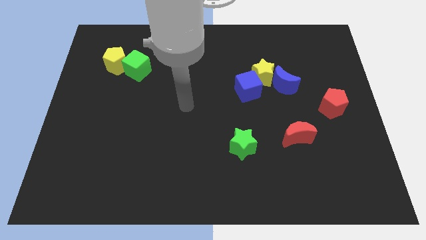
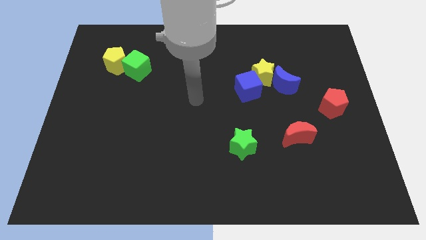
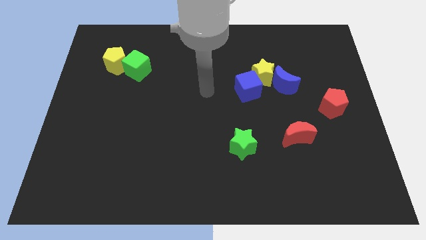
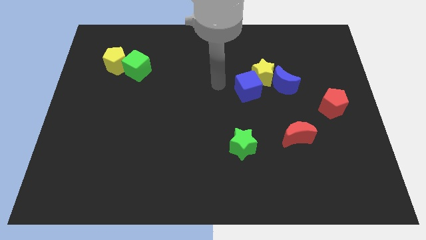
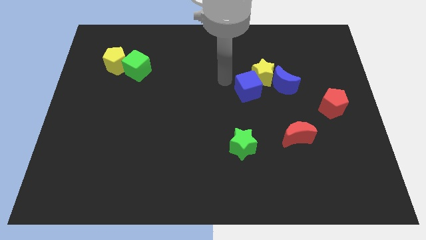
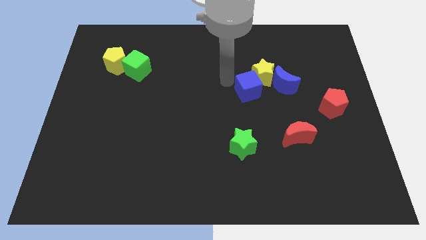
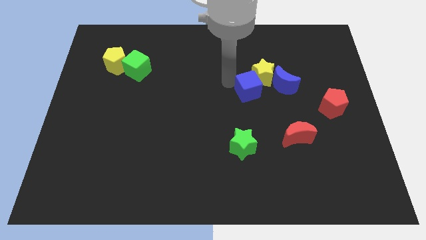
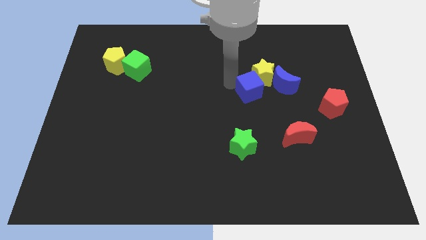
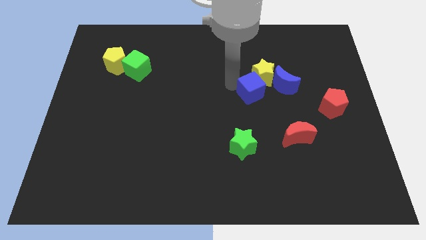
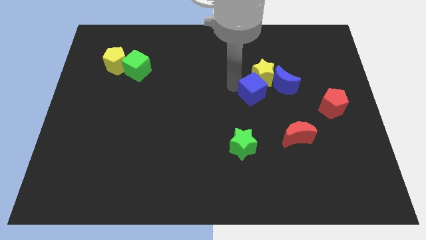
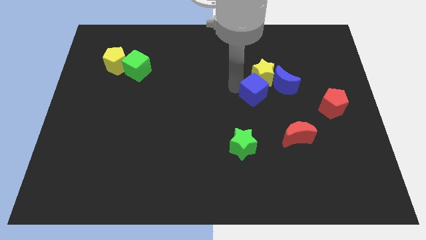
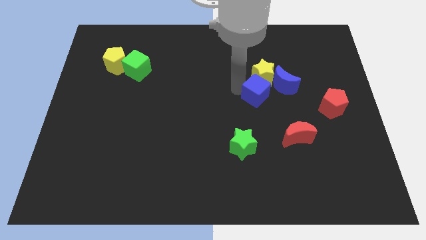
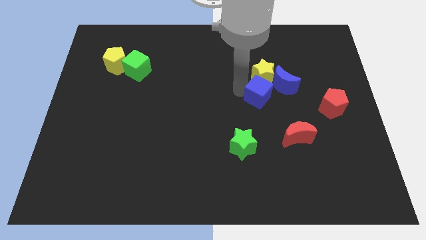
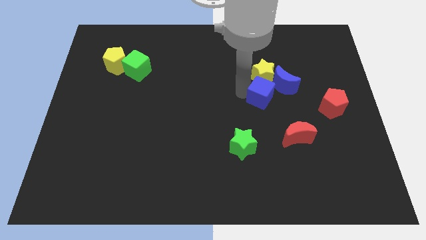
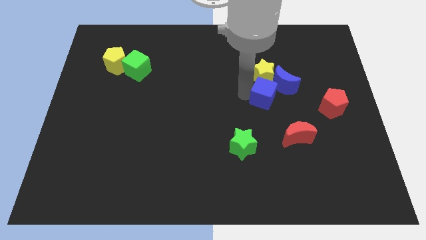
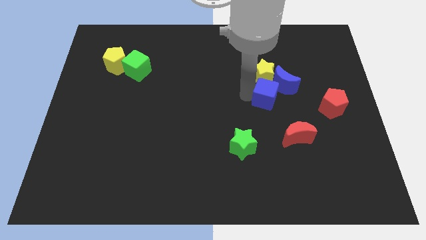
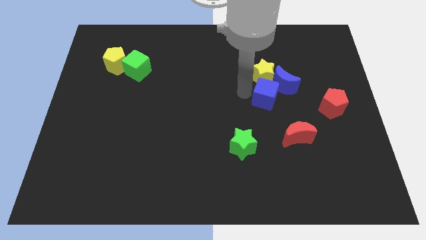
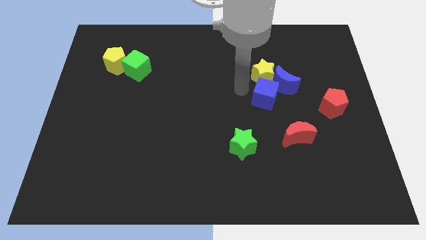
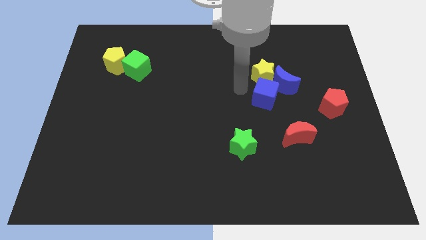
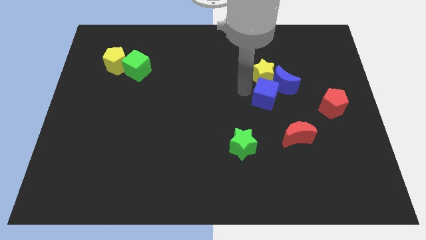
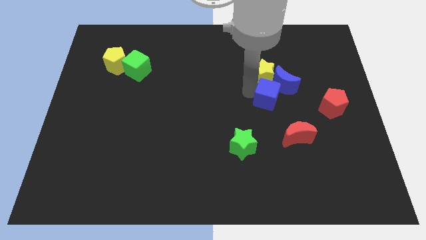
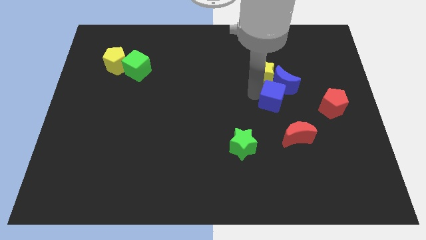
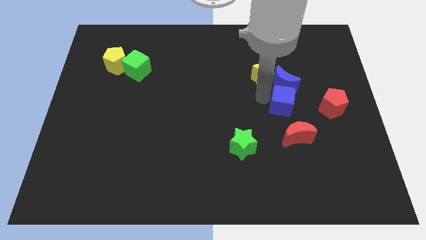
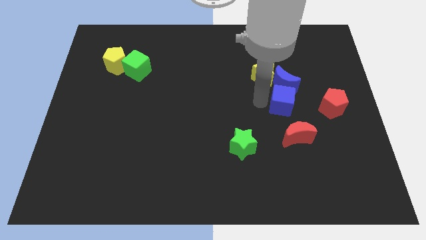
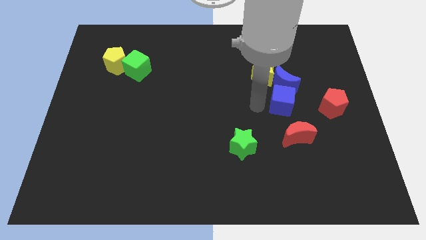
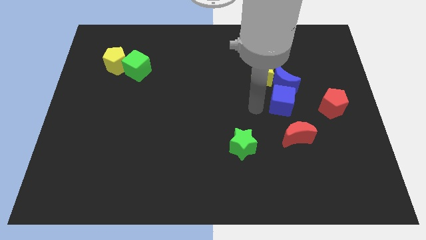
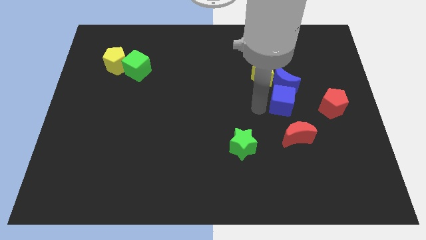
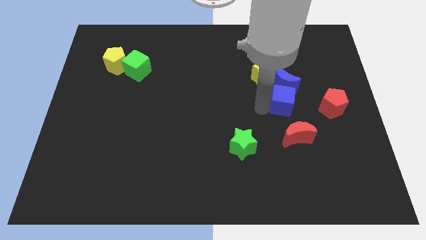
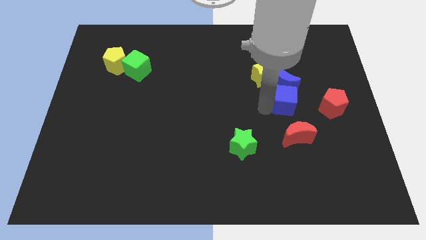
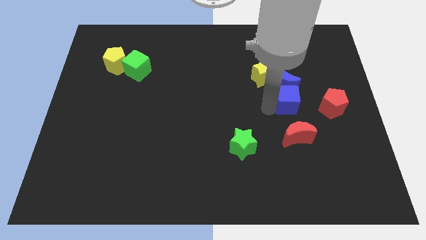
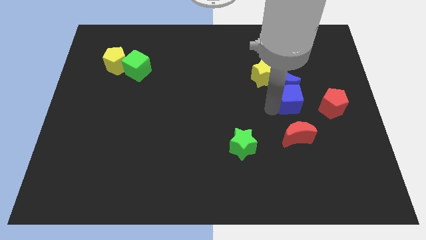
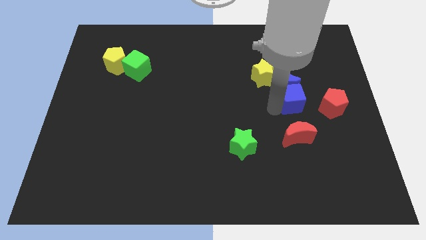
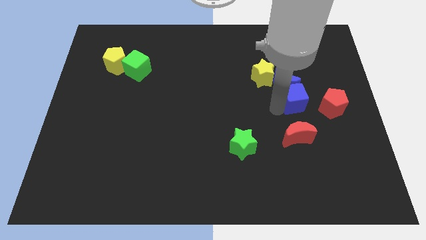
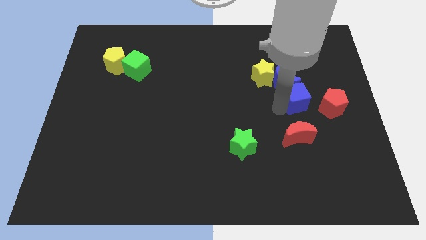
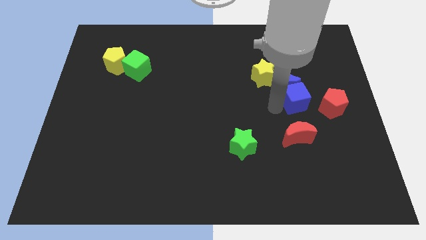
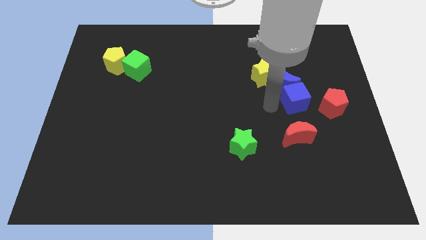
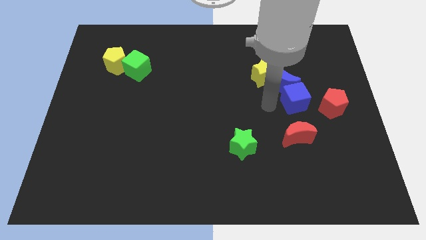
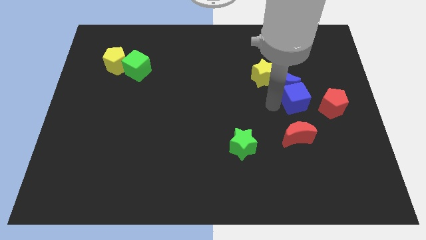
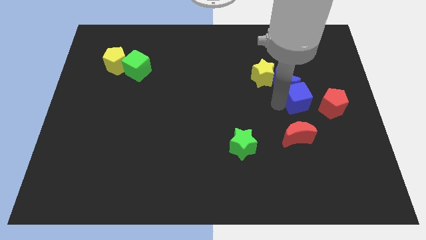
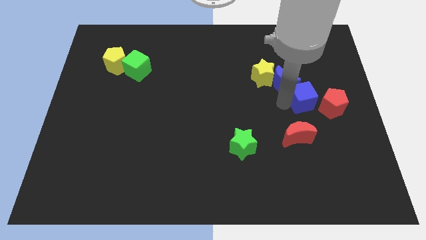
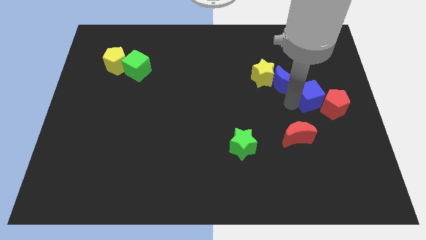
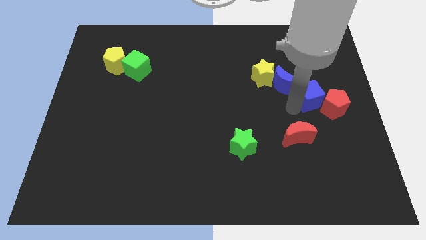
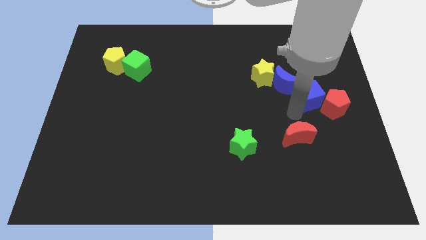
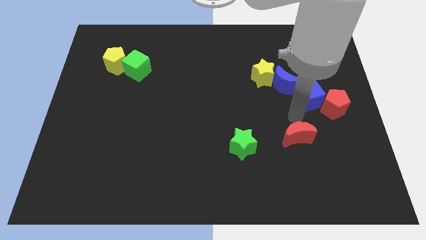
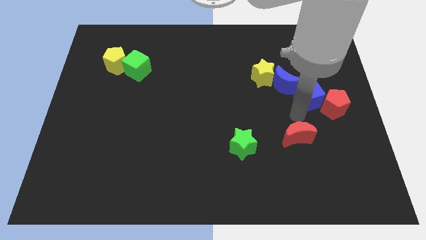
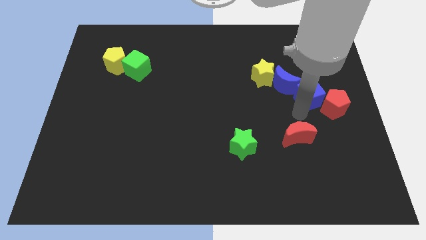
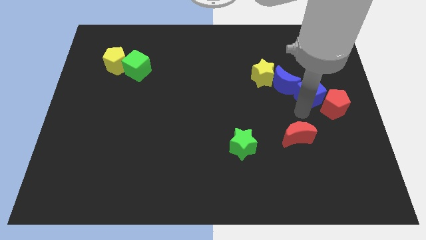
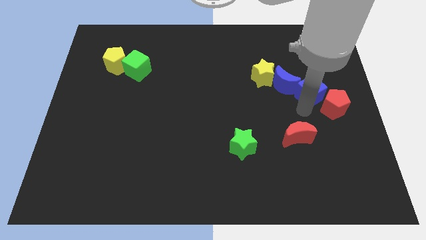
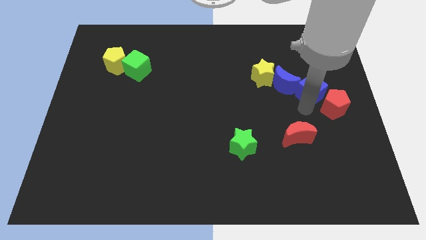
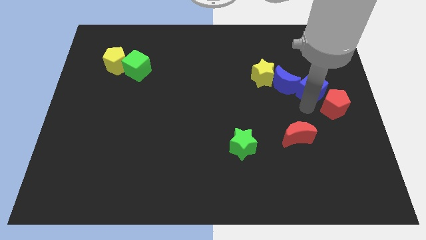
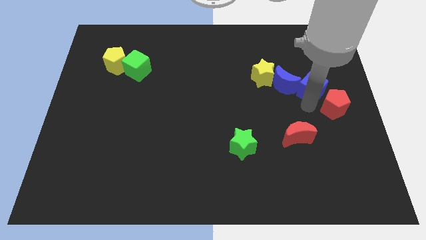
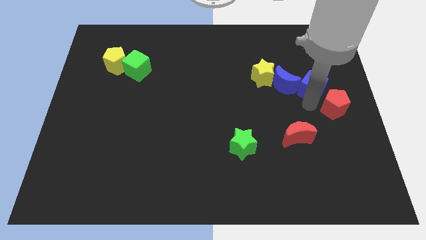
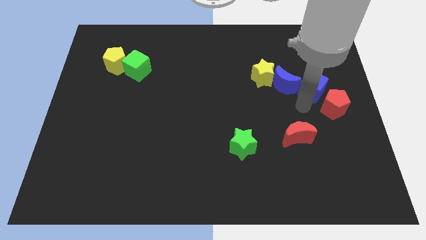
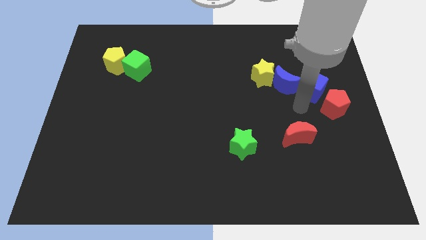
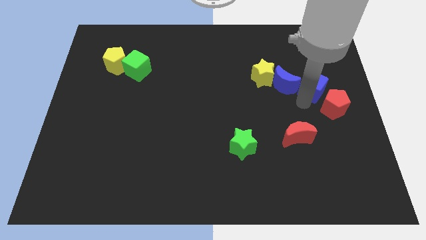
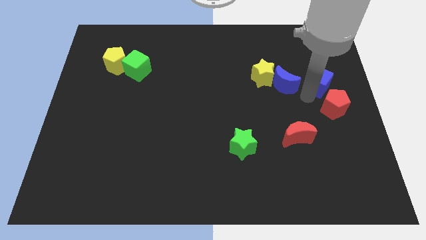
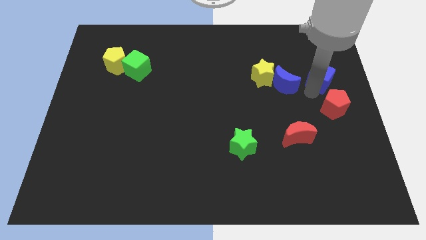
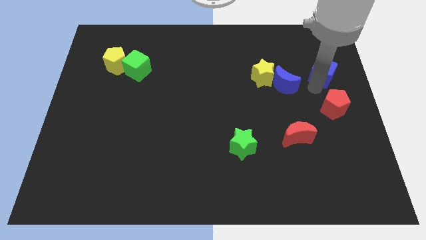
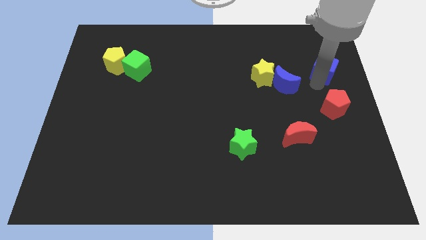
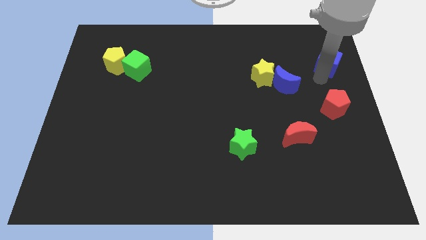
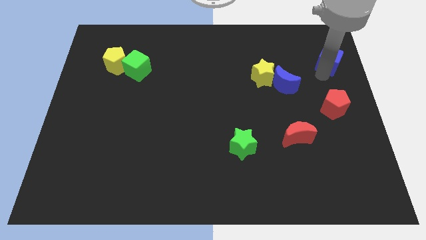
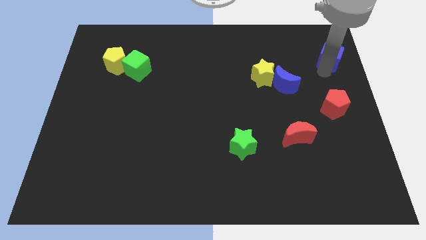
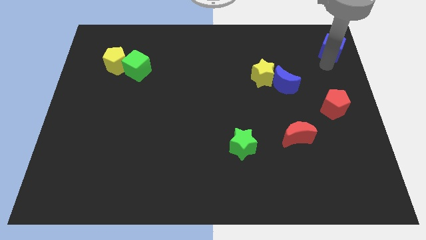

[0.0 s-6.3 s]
move the blue cube to the top right of the board

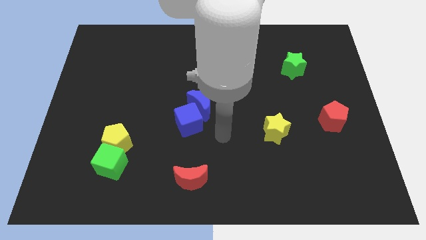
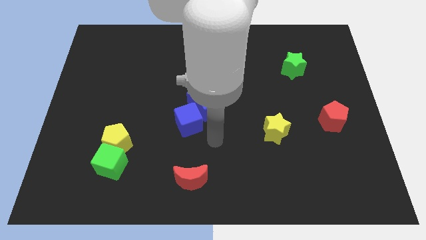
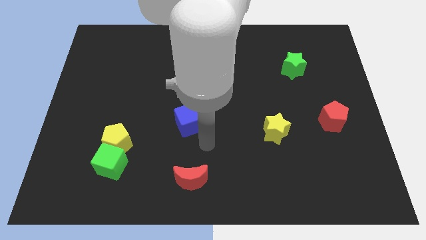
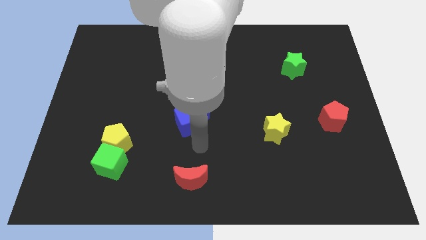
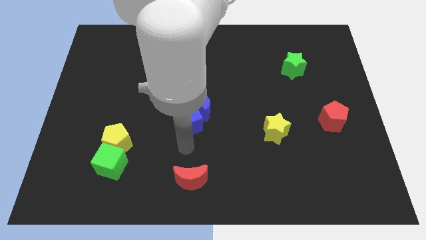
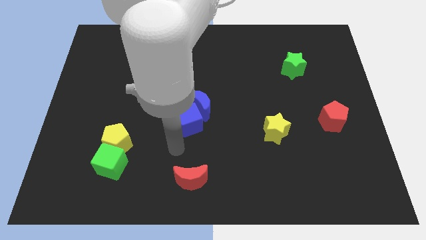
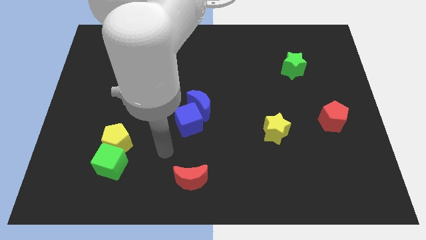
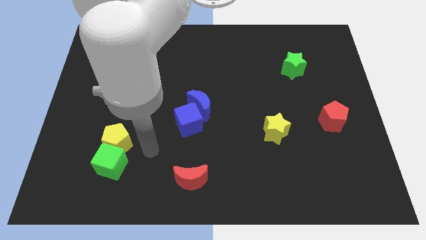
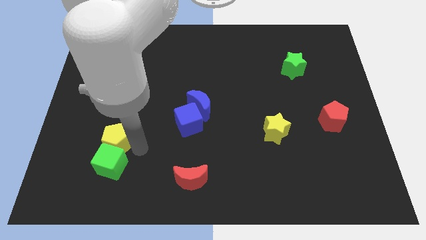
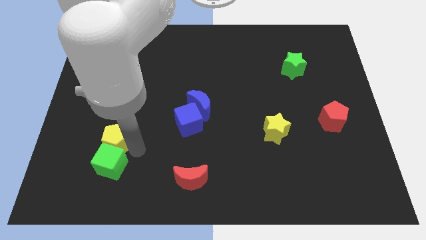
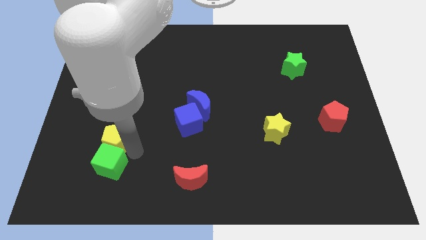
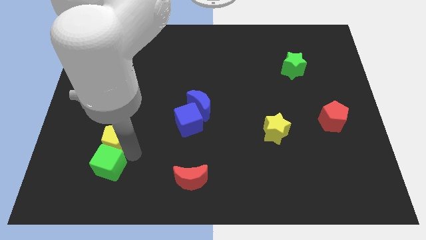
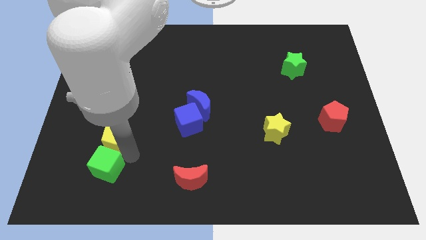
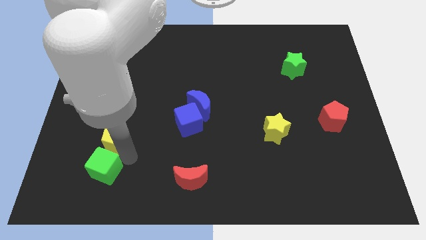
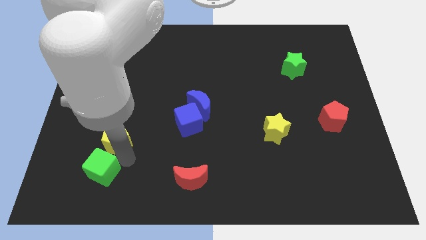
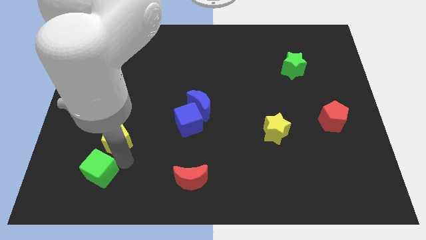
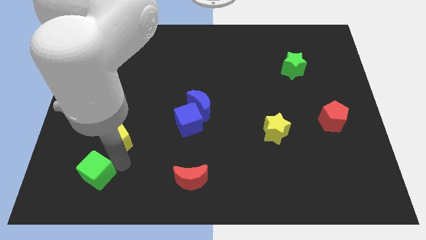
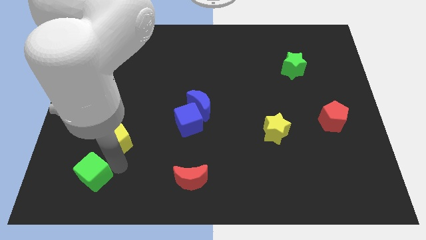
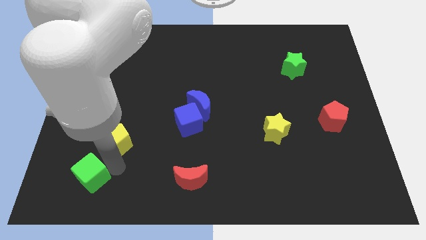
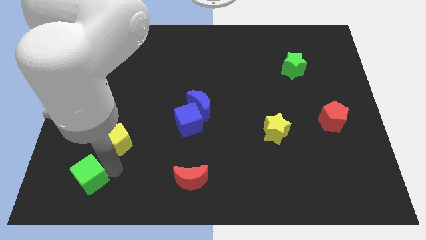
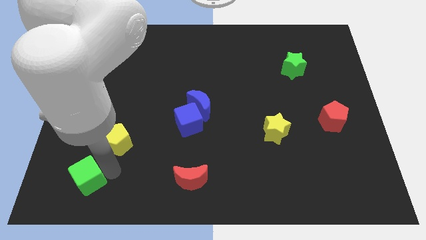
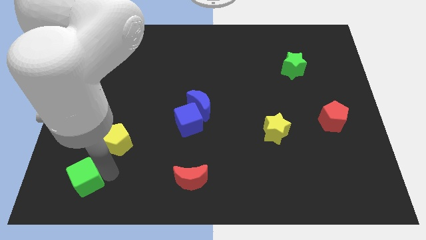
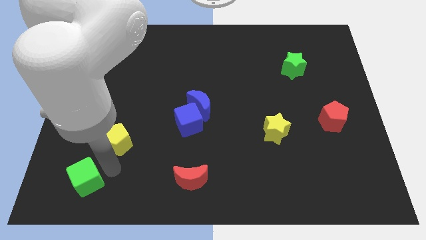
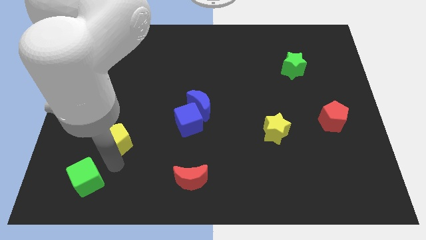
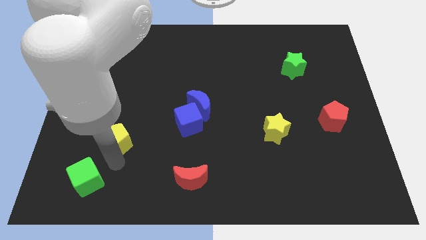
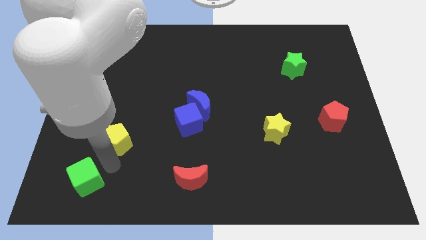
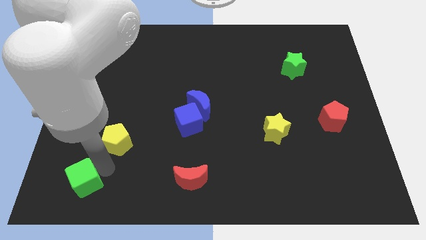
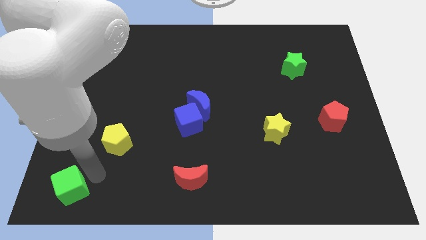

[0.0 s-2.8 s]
put the green cube to the lower left corner
